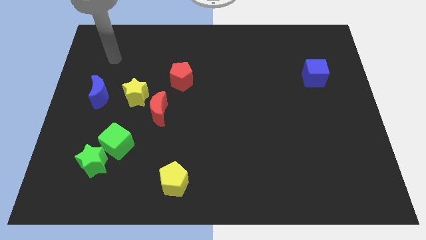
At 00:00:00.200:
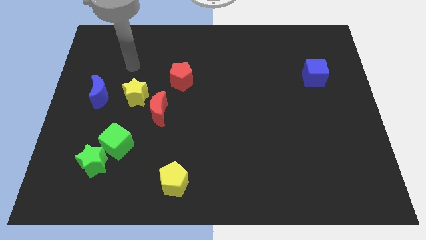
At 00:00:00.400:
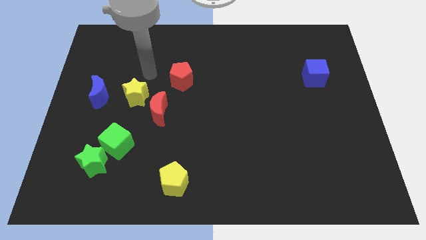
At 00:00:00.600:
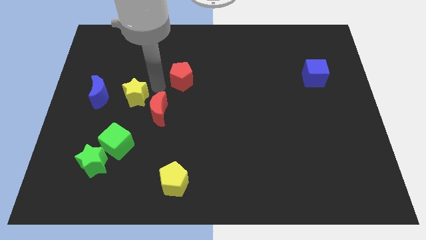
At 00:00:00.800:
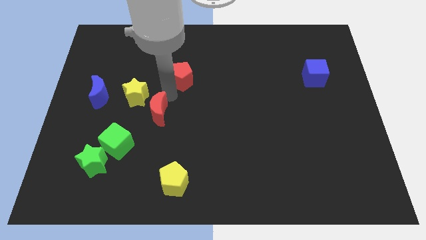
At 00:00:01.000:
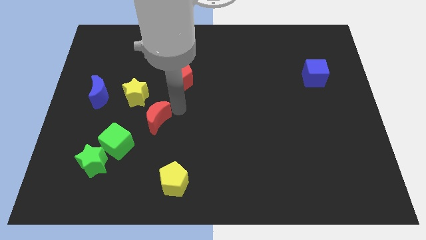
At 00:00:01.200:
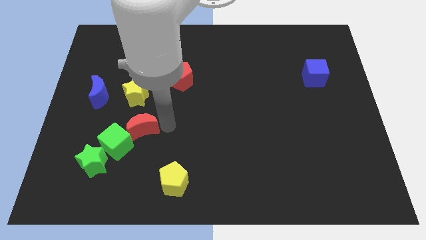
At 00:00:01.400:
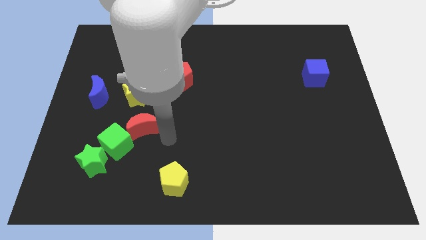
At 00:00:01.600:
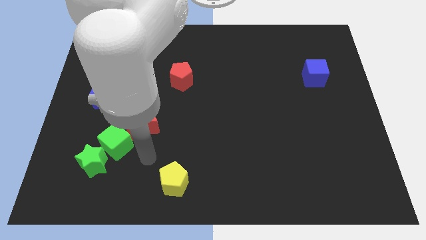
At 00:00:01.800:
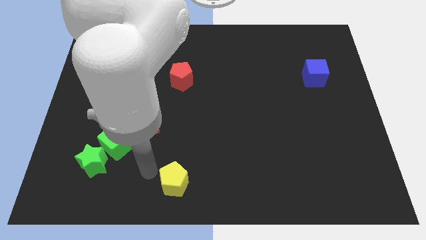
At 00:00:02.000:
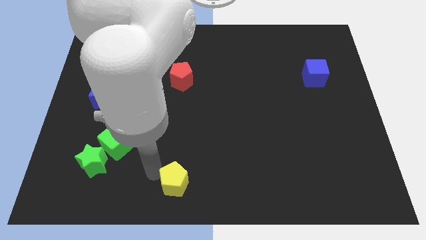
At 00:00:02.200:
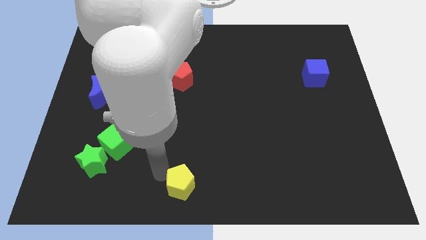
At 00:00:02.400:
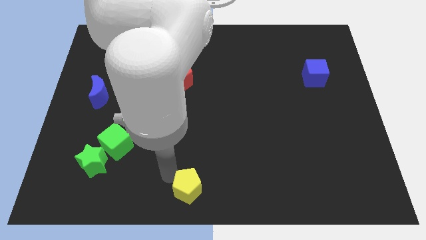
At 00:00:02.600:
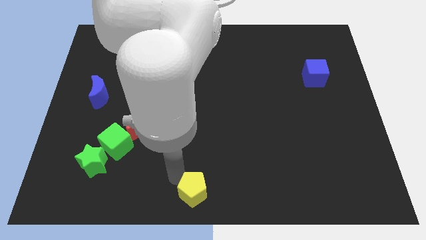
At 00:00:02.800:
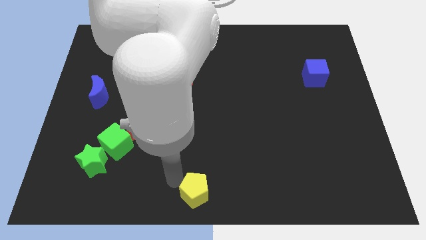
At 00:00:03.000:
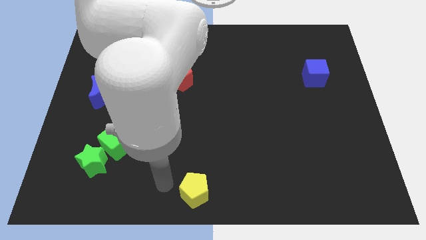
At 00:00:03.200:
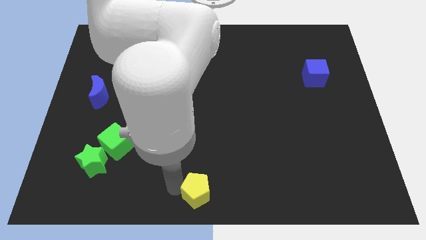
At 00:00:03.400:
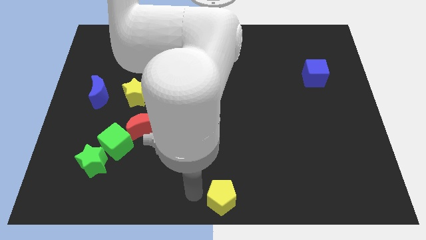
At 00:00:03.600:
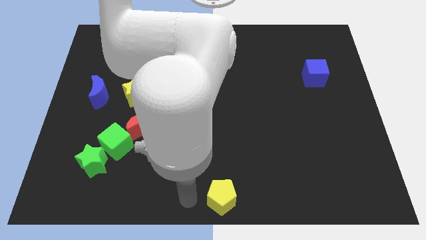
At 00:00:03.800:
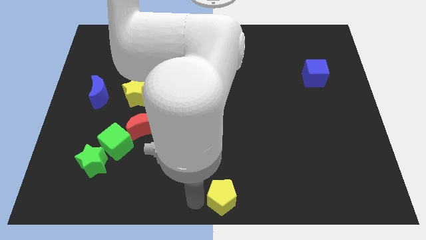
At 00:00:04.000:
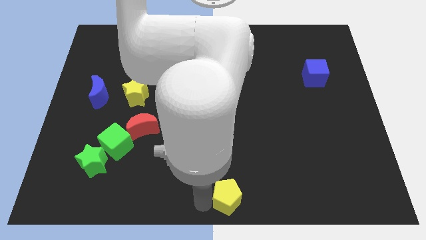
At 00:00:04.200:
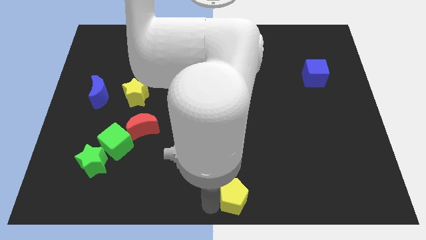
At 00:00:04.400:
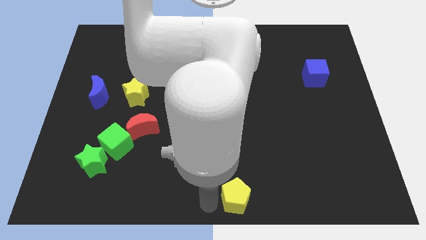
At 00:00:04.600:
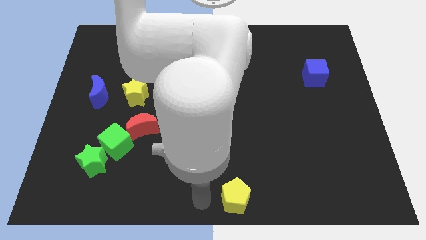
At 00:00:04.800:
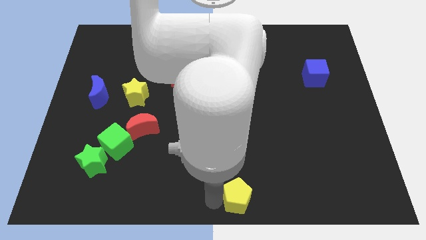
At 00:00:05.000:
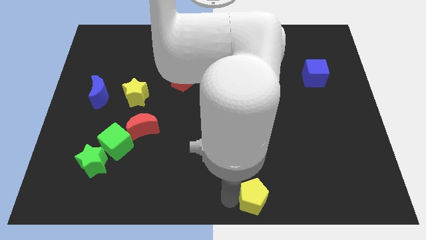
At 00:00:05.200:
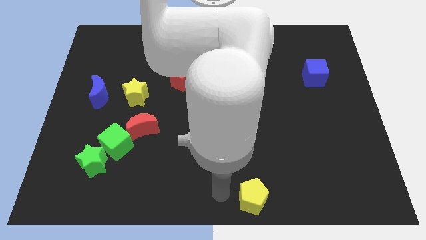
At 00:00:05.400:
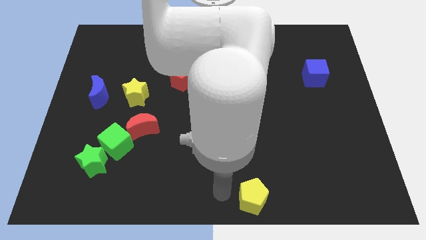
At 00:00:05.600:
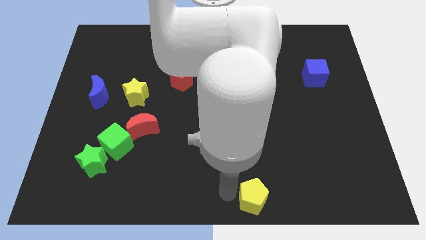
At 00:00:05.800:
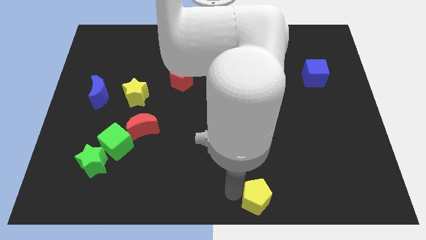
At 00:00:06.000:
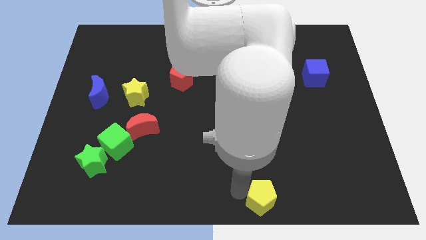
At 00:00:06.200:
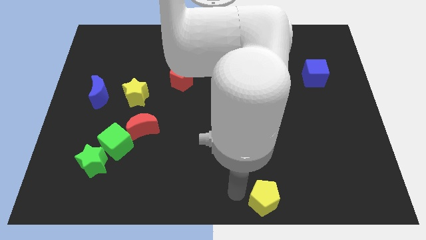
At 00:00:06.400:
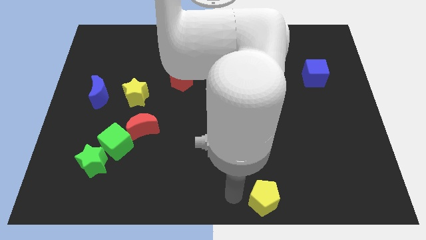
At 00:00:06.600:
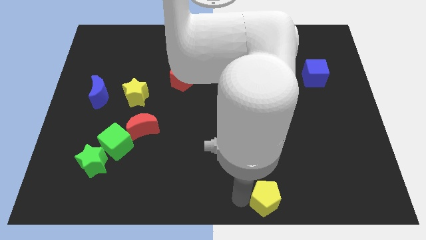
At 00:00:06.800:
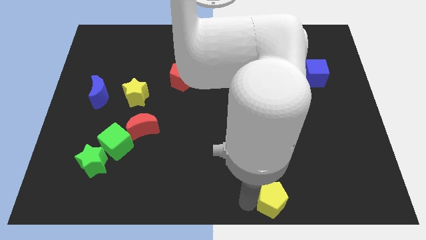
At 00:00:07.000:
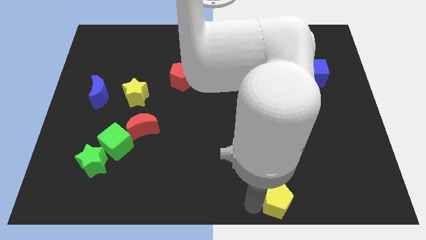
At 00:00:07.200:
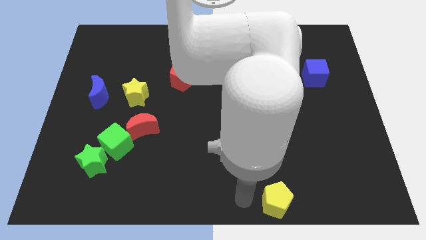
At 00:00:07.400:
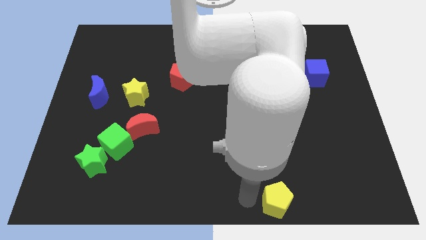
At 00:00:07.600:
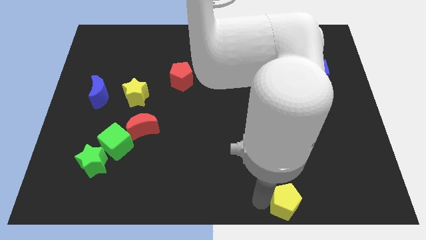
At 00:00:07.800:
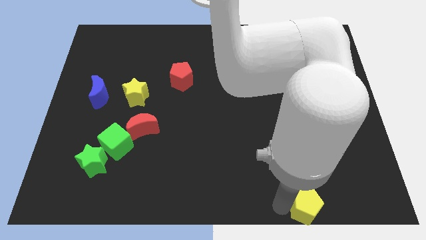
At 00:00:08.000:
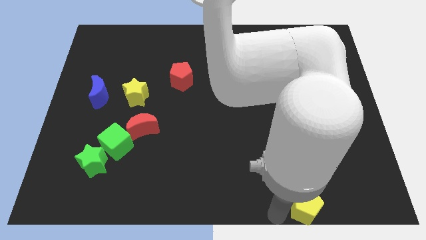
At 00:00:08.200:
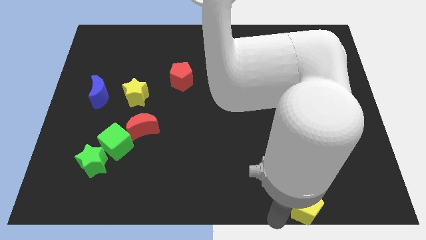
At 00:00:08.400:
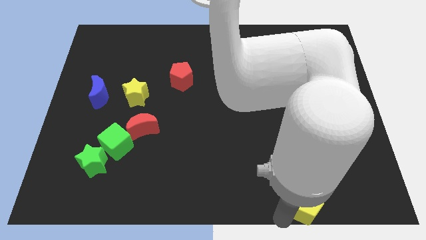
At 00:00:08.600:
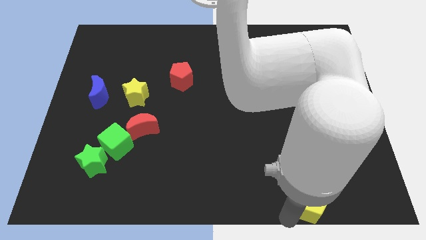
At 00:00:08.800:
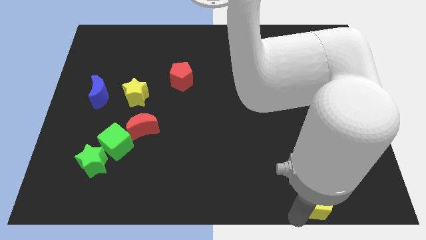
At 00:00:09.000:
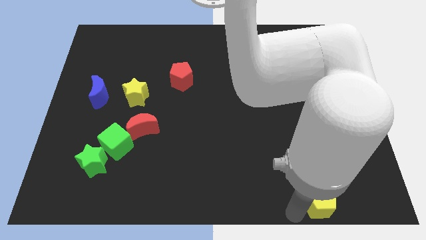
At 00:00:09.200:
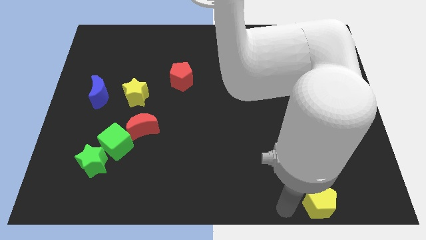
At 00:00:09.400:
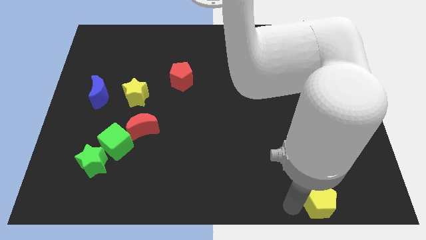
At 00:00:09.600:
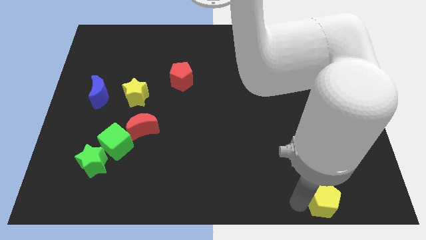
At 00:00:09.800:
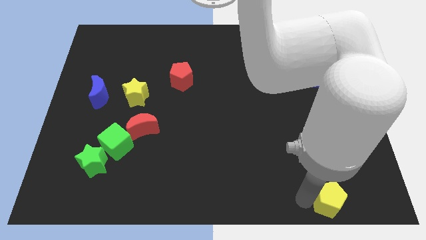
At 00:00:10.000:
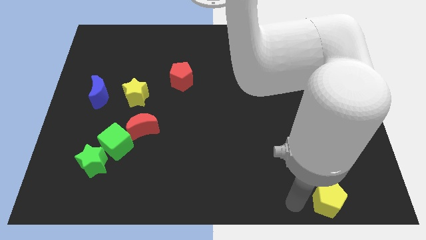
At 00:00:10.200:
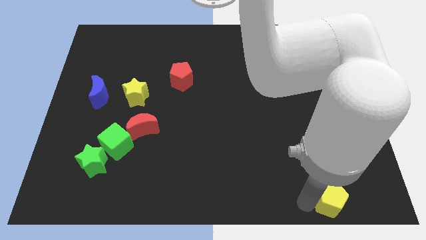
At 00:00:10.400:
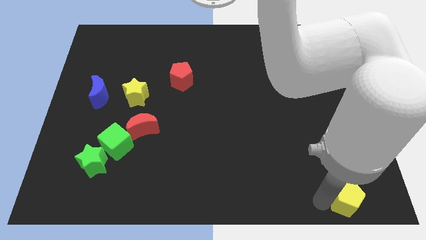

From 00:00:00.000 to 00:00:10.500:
put the yellow pentagon to the lower right corner
